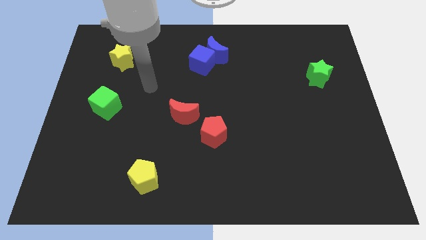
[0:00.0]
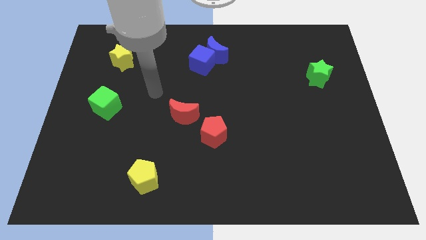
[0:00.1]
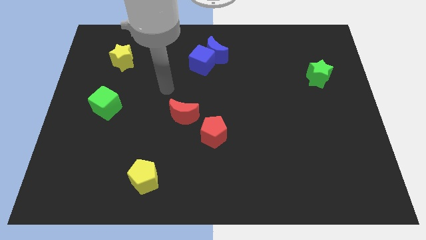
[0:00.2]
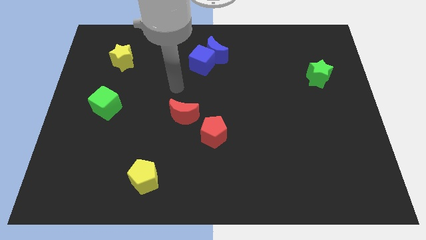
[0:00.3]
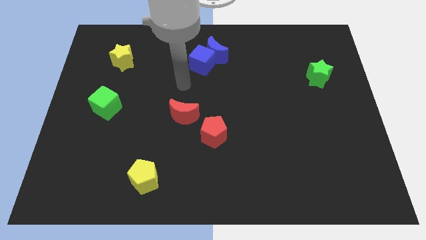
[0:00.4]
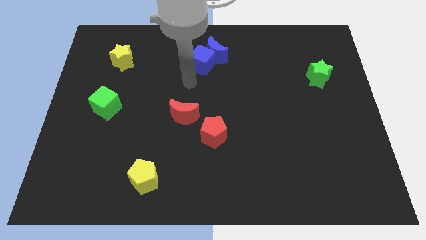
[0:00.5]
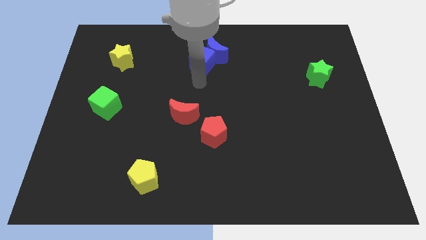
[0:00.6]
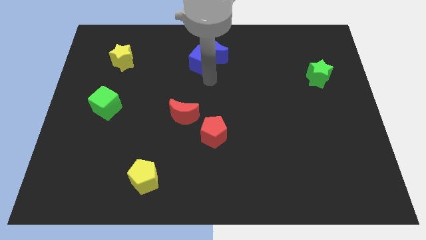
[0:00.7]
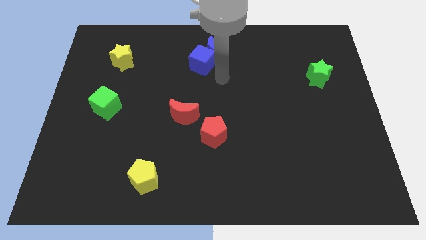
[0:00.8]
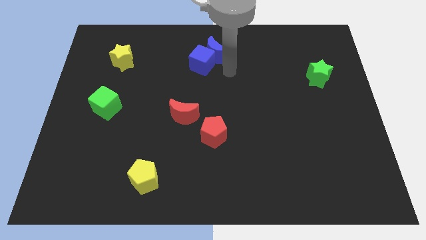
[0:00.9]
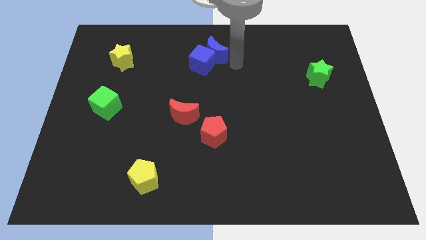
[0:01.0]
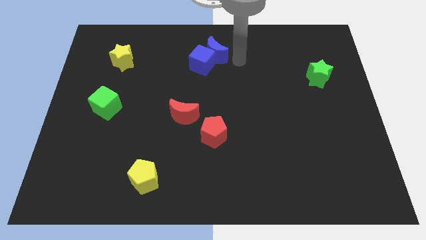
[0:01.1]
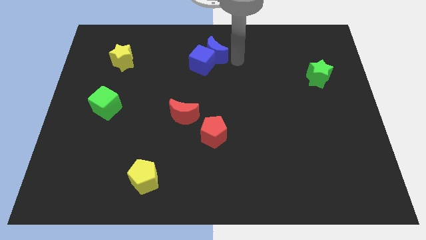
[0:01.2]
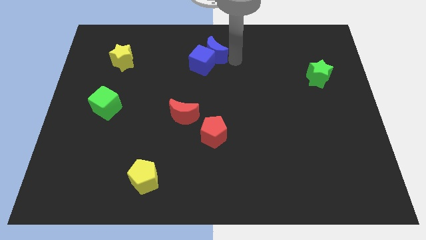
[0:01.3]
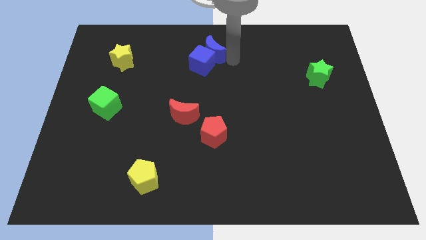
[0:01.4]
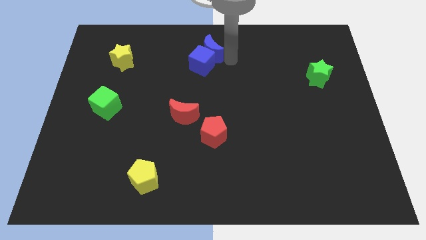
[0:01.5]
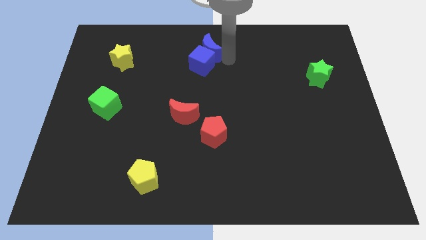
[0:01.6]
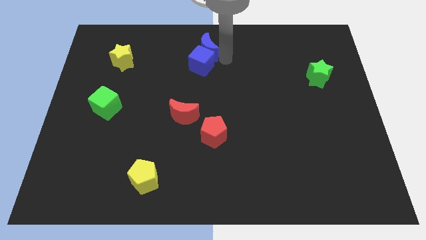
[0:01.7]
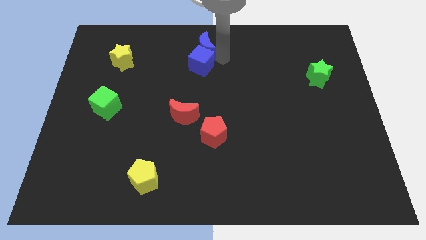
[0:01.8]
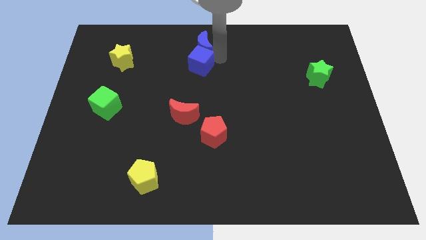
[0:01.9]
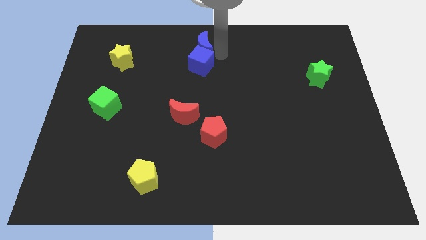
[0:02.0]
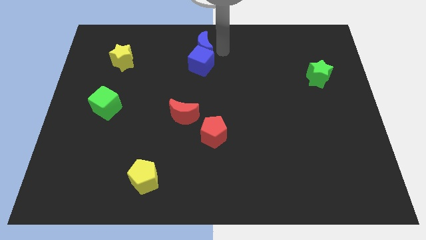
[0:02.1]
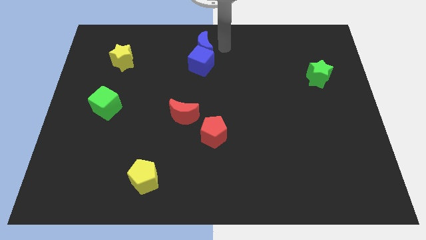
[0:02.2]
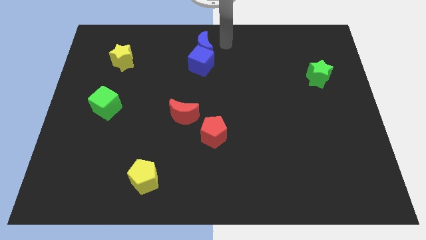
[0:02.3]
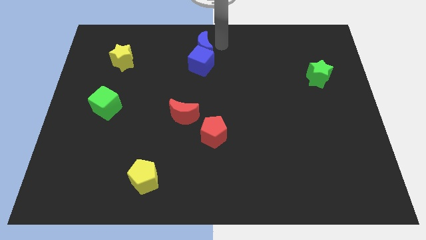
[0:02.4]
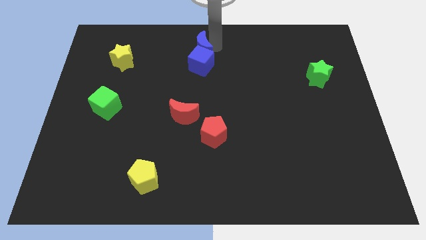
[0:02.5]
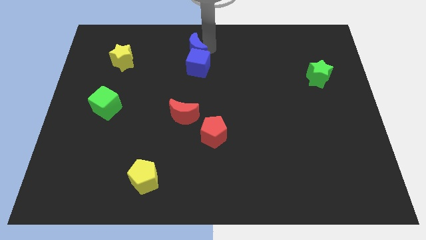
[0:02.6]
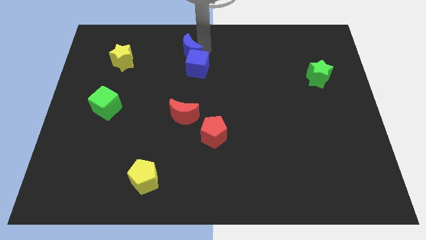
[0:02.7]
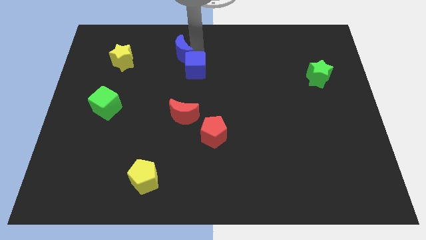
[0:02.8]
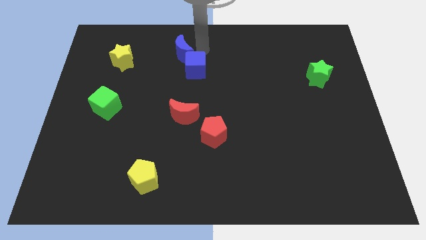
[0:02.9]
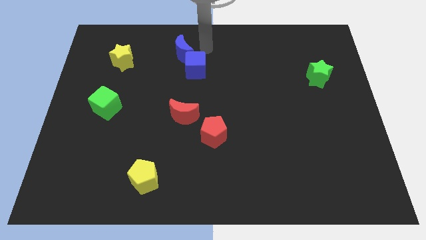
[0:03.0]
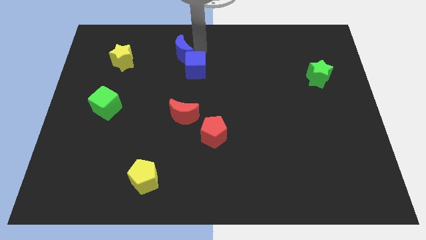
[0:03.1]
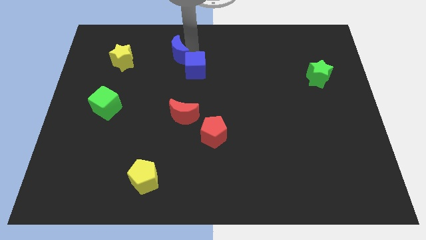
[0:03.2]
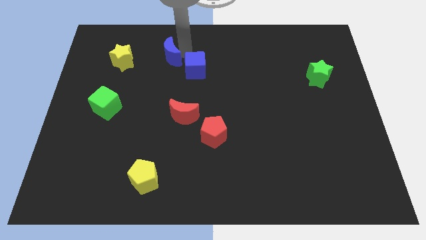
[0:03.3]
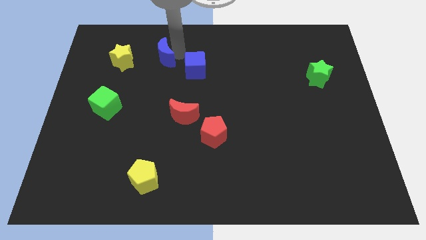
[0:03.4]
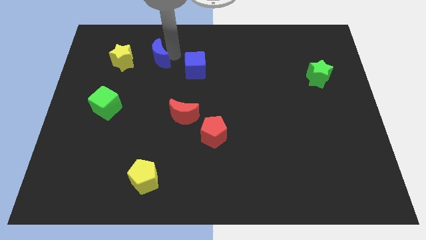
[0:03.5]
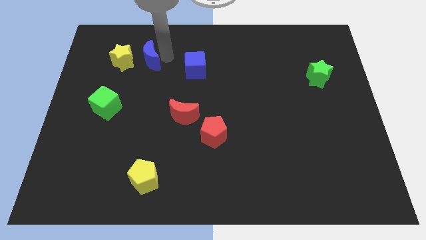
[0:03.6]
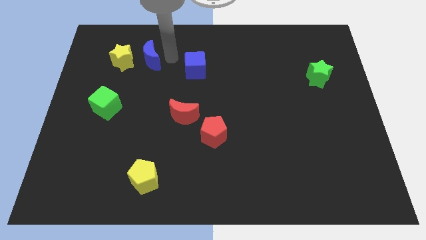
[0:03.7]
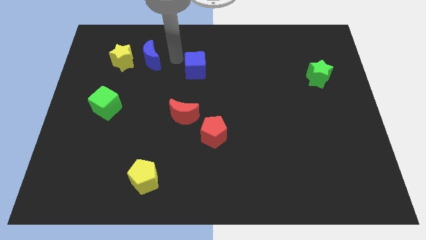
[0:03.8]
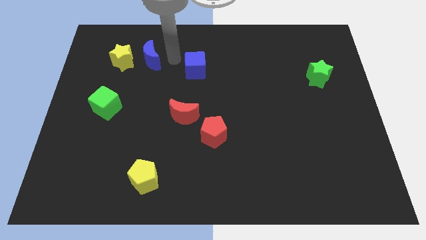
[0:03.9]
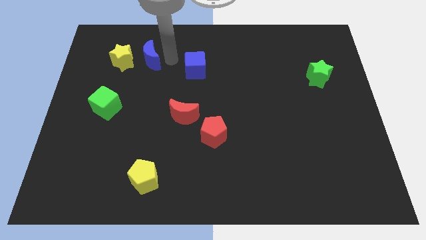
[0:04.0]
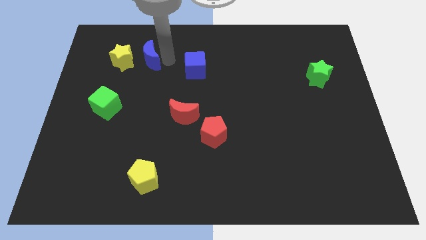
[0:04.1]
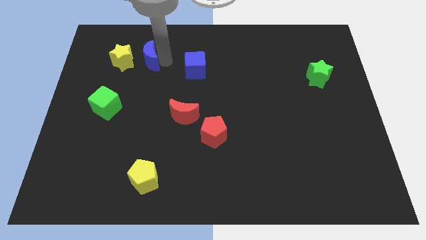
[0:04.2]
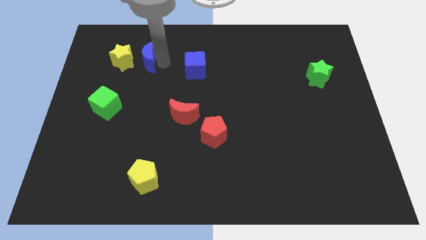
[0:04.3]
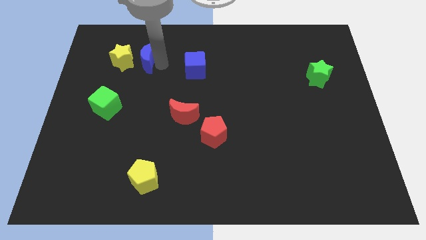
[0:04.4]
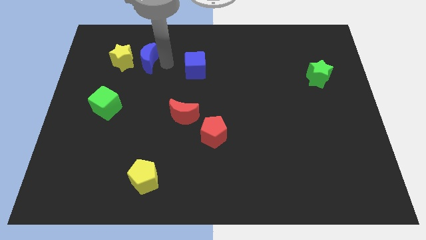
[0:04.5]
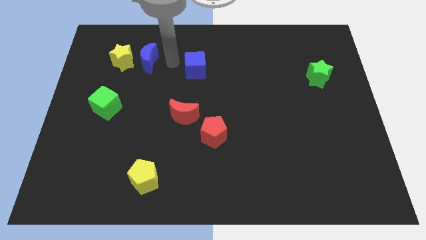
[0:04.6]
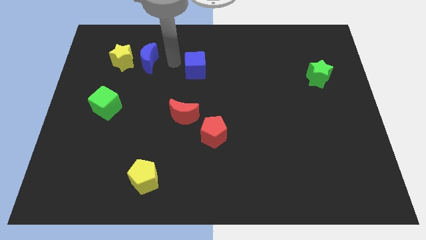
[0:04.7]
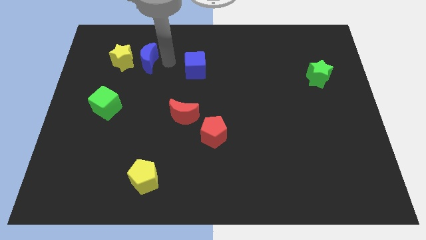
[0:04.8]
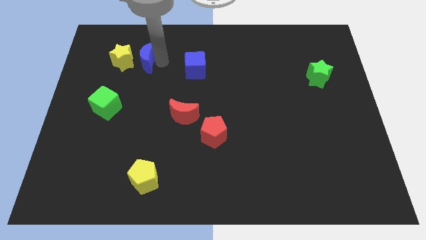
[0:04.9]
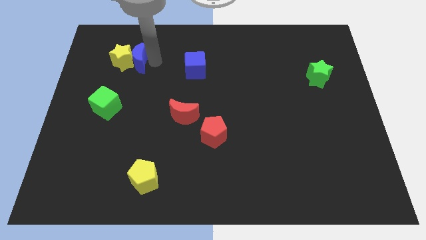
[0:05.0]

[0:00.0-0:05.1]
push the blue moon to the yellow star

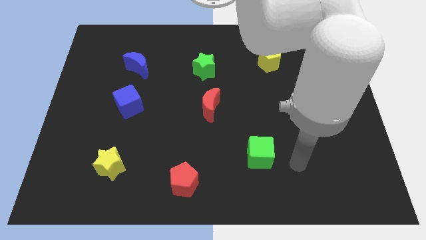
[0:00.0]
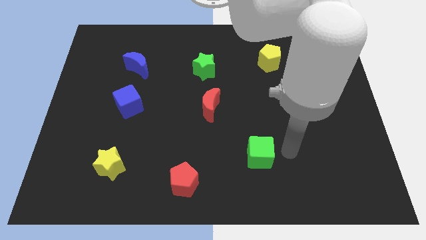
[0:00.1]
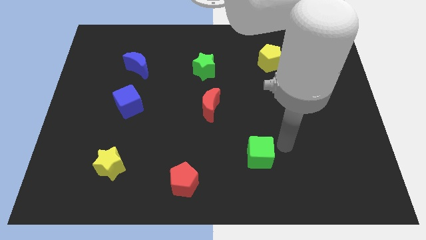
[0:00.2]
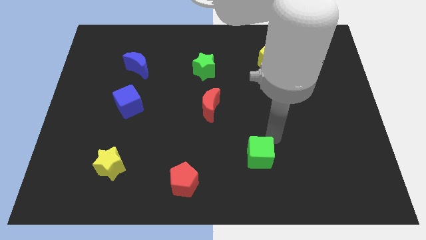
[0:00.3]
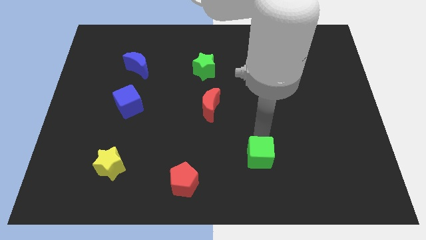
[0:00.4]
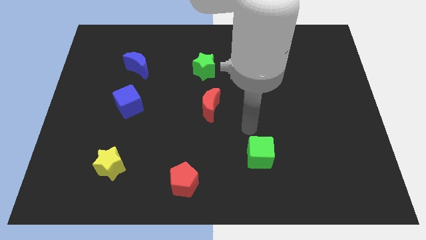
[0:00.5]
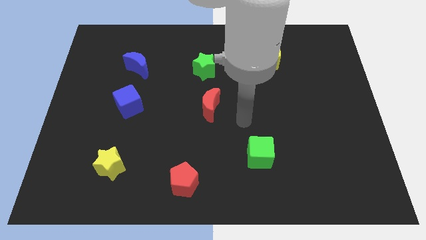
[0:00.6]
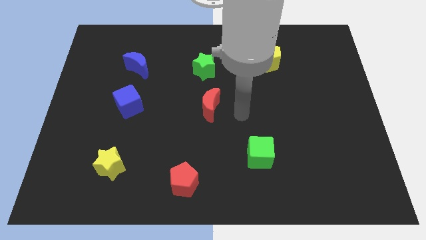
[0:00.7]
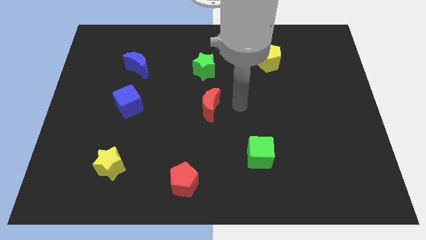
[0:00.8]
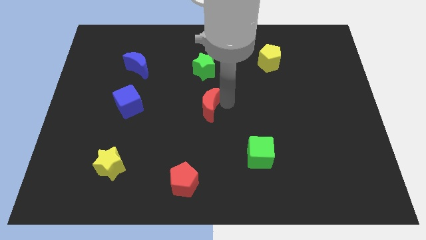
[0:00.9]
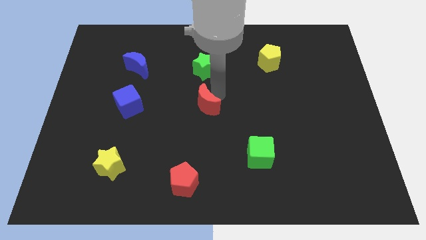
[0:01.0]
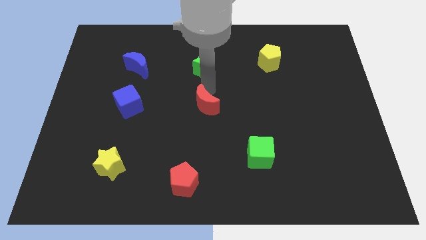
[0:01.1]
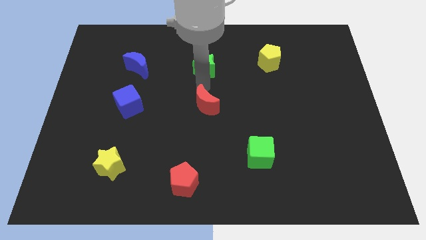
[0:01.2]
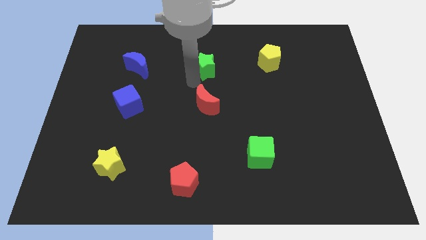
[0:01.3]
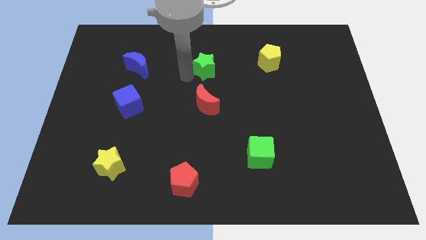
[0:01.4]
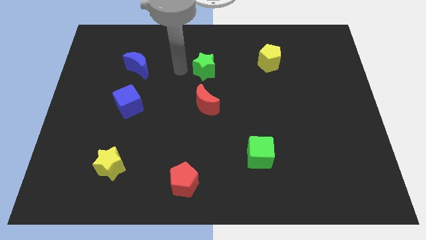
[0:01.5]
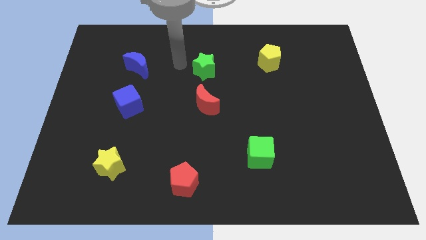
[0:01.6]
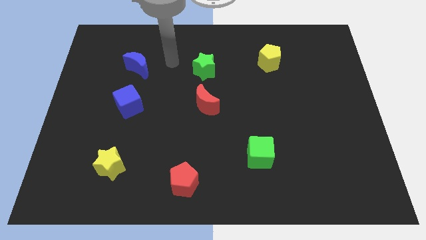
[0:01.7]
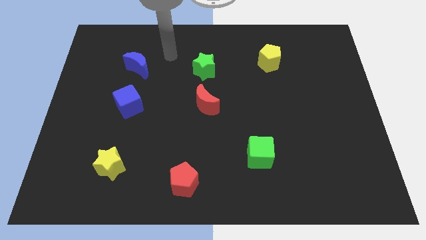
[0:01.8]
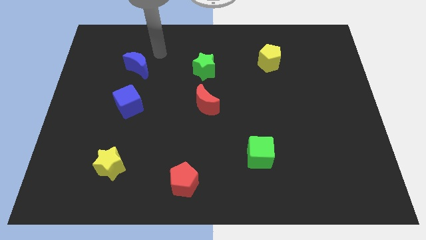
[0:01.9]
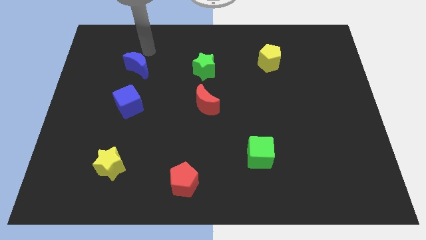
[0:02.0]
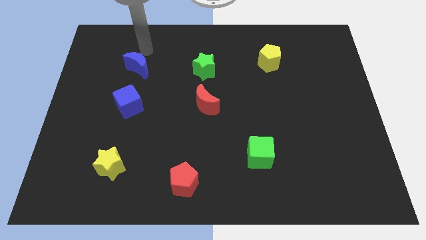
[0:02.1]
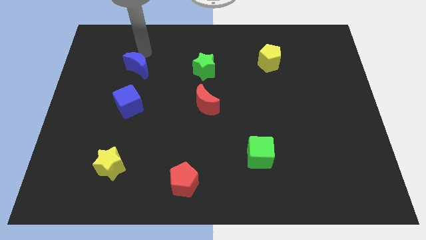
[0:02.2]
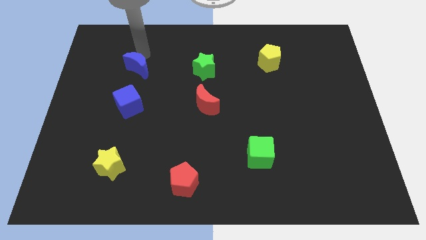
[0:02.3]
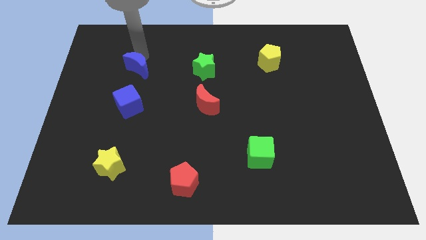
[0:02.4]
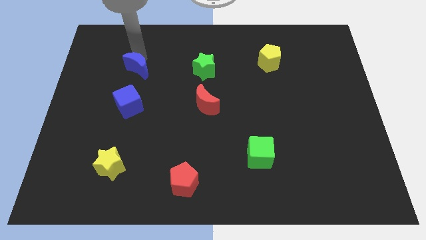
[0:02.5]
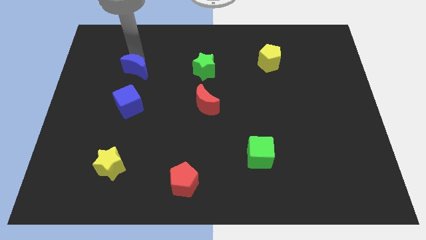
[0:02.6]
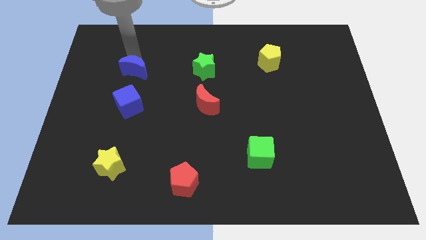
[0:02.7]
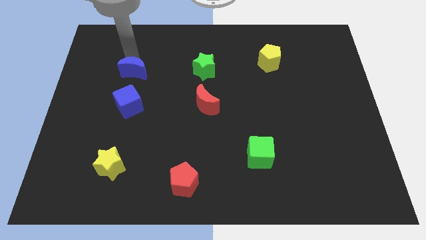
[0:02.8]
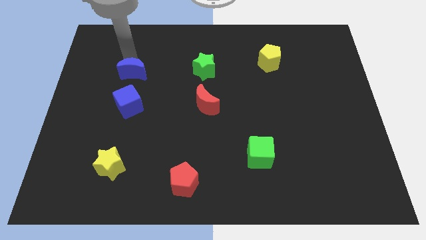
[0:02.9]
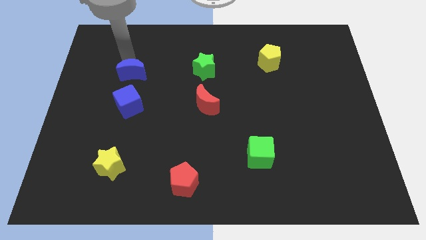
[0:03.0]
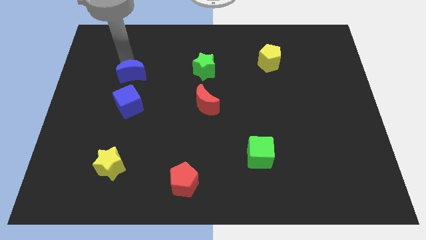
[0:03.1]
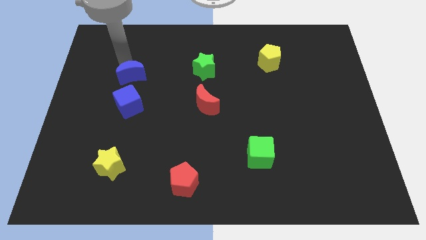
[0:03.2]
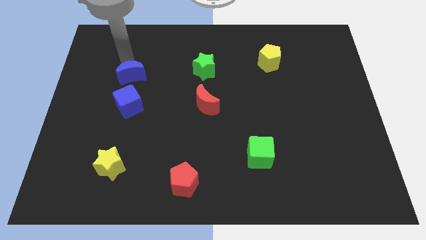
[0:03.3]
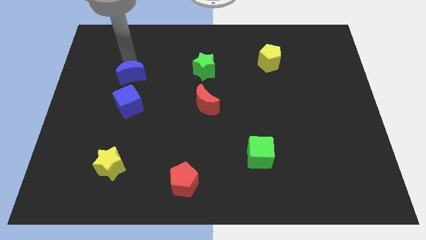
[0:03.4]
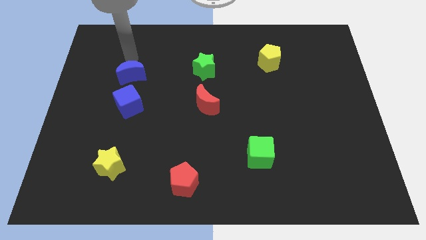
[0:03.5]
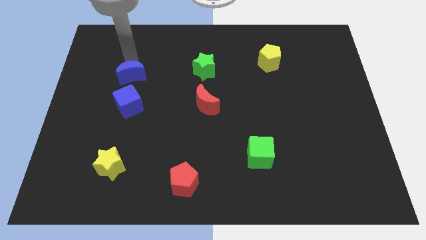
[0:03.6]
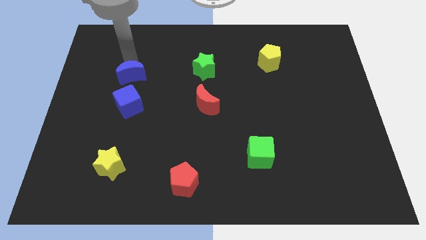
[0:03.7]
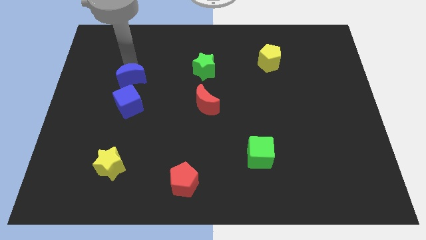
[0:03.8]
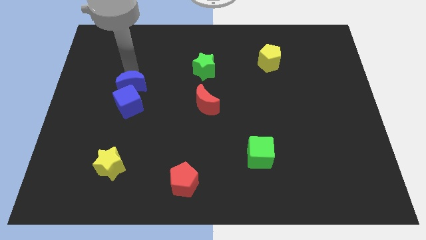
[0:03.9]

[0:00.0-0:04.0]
push the blue moon to the blue cube
